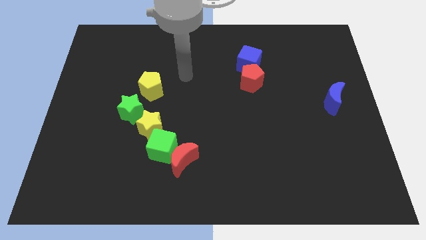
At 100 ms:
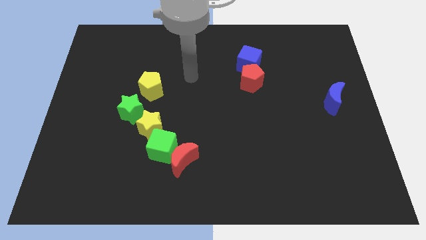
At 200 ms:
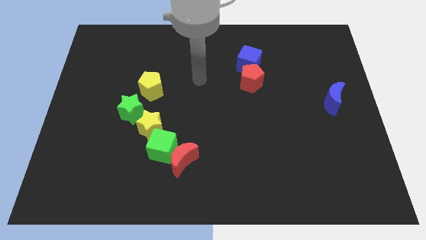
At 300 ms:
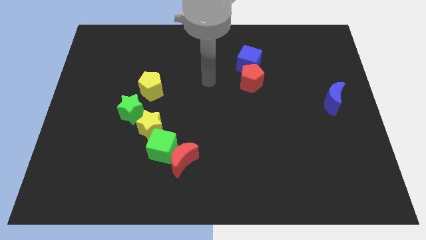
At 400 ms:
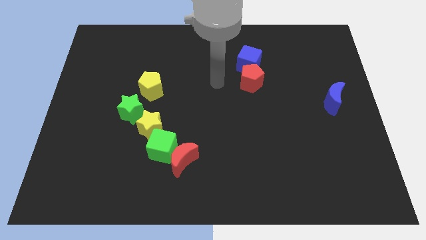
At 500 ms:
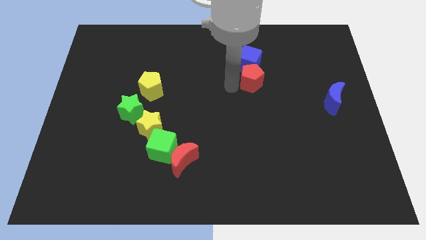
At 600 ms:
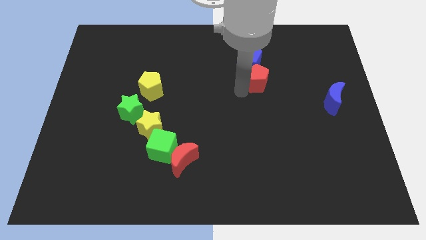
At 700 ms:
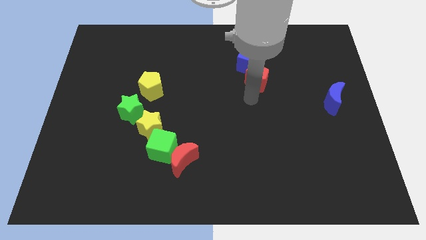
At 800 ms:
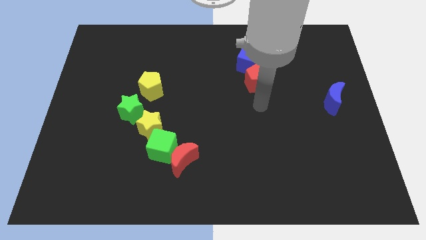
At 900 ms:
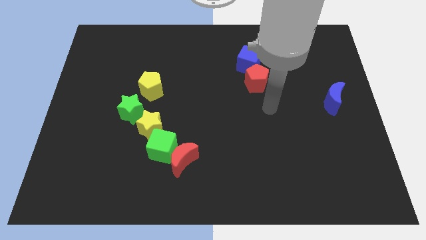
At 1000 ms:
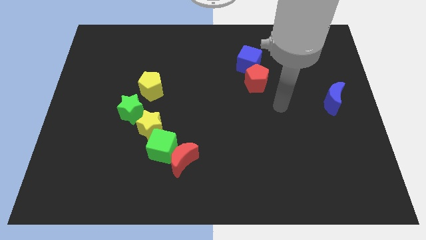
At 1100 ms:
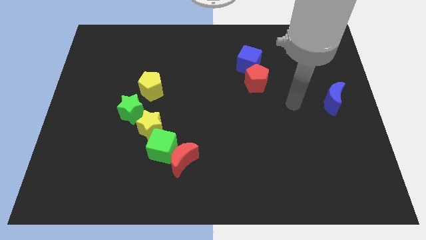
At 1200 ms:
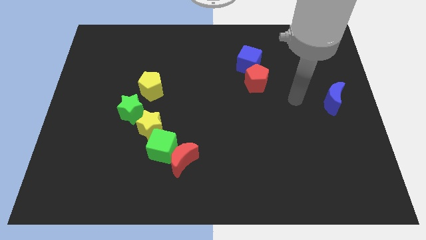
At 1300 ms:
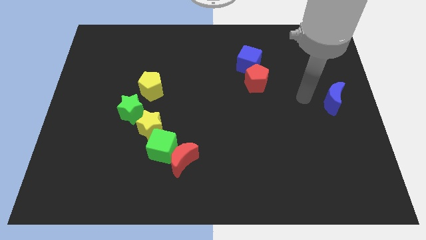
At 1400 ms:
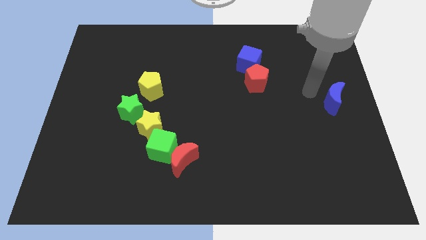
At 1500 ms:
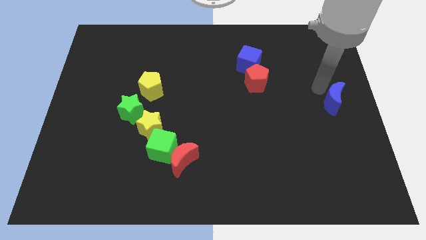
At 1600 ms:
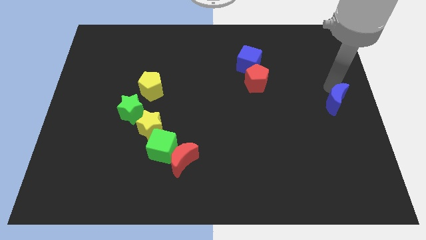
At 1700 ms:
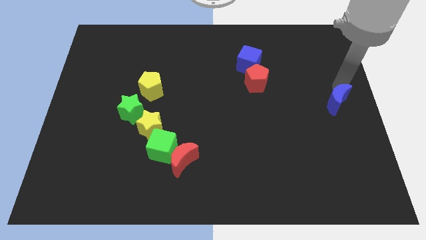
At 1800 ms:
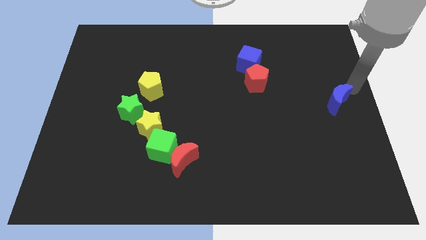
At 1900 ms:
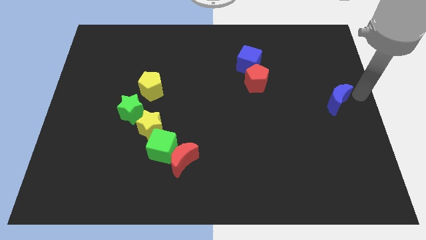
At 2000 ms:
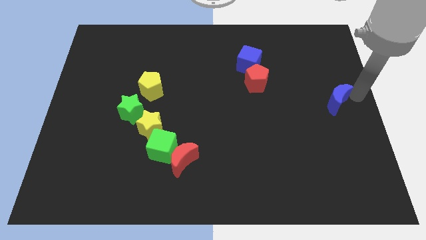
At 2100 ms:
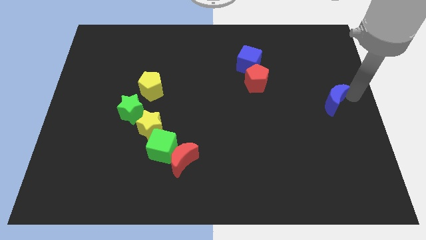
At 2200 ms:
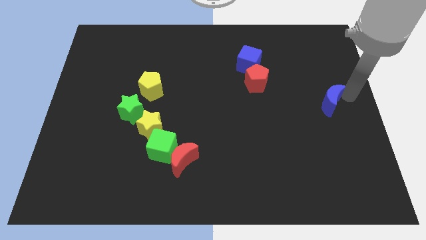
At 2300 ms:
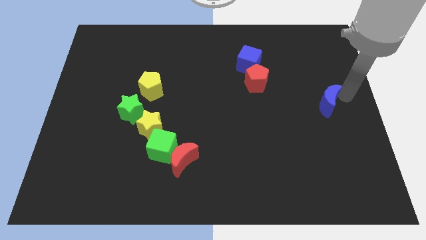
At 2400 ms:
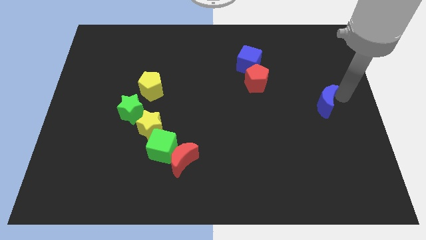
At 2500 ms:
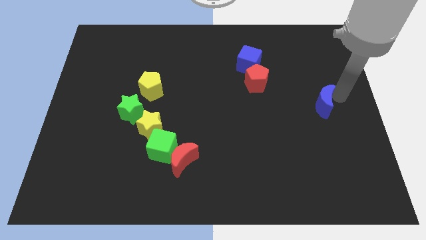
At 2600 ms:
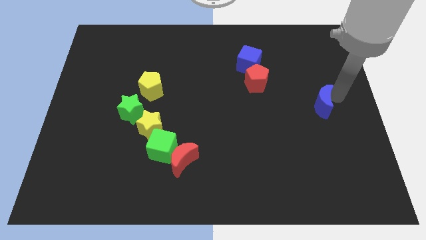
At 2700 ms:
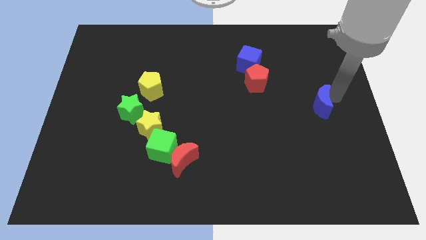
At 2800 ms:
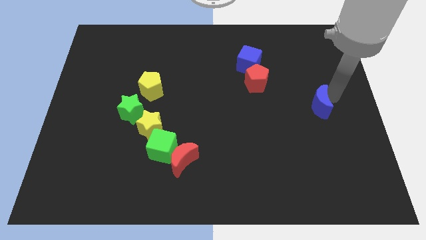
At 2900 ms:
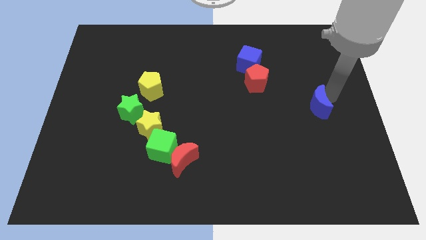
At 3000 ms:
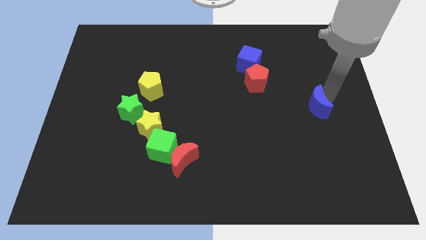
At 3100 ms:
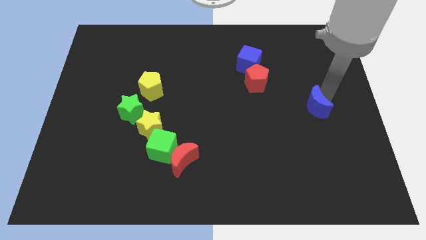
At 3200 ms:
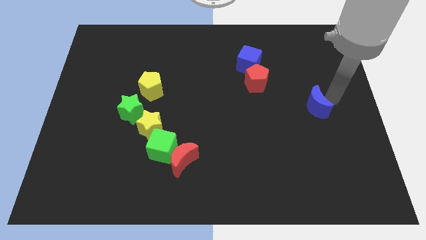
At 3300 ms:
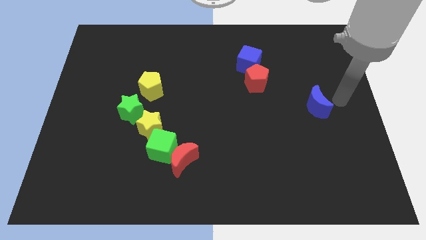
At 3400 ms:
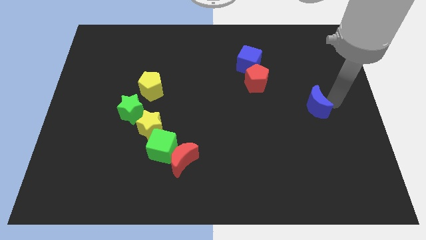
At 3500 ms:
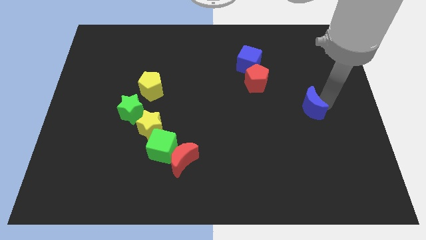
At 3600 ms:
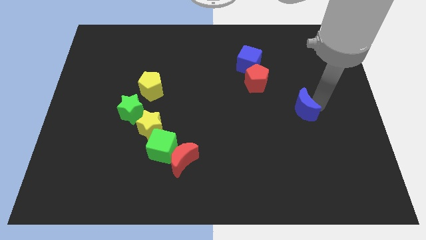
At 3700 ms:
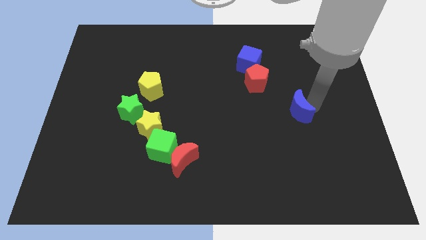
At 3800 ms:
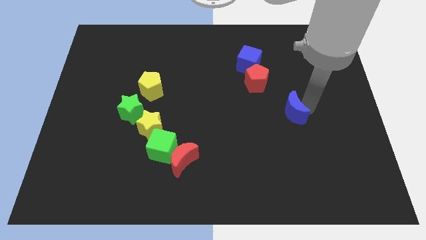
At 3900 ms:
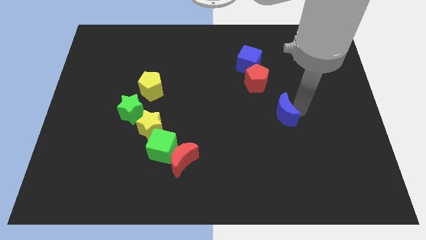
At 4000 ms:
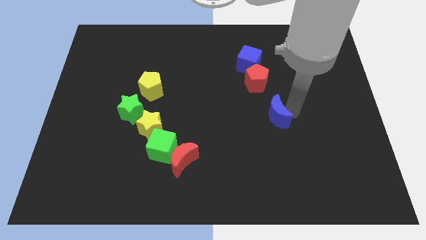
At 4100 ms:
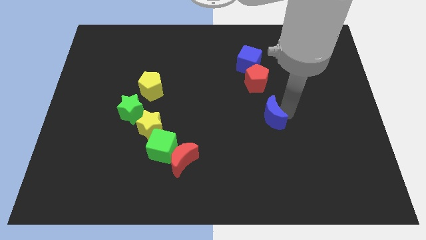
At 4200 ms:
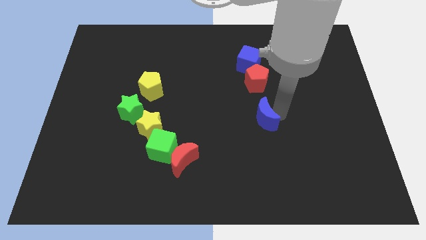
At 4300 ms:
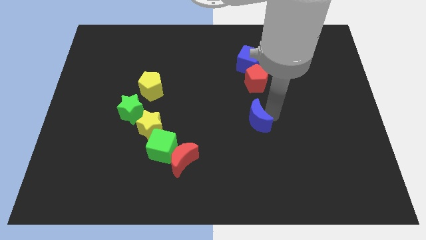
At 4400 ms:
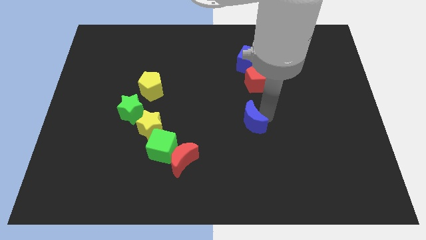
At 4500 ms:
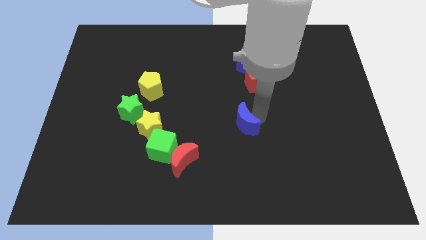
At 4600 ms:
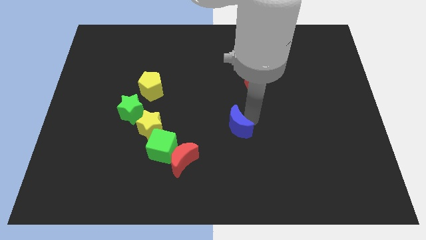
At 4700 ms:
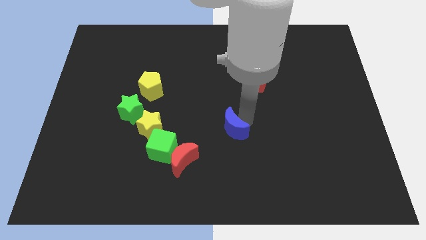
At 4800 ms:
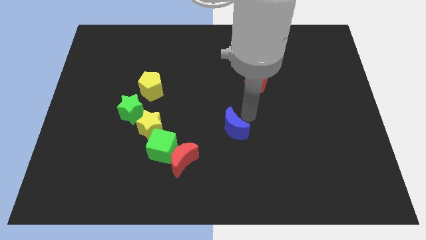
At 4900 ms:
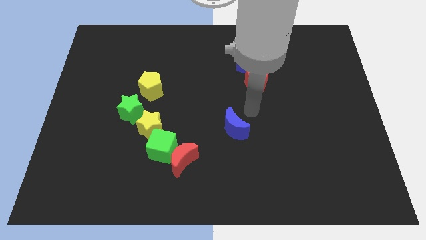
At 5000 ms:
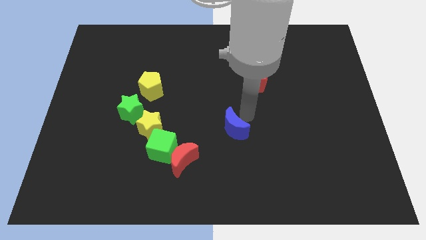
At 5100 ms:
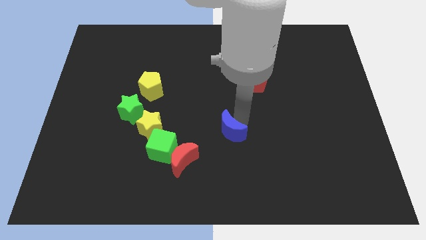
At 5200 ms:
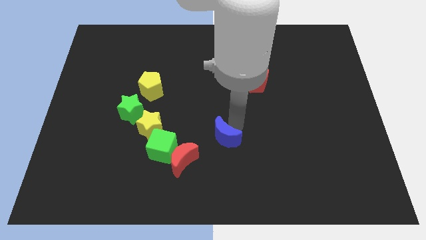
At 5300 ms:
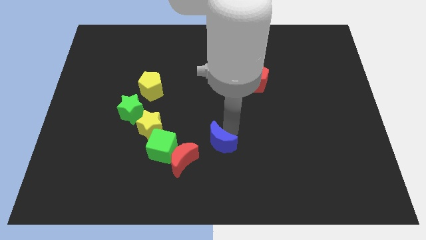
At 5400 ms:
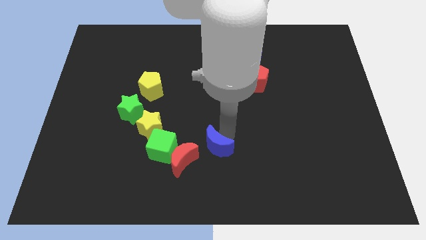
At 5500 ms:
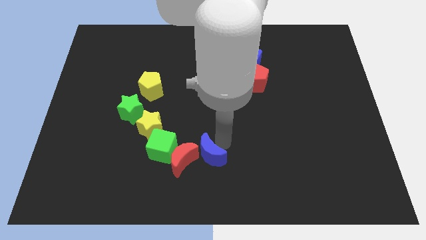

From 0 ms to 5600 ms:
push the blue moon towards the red moon

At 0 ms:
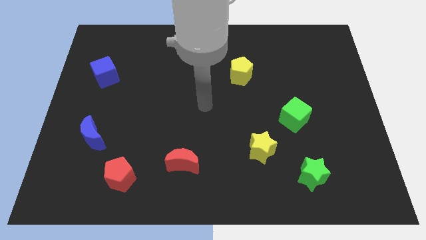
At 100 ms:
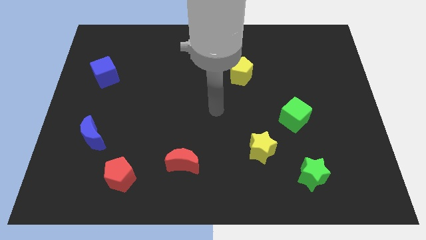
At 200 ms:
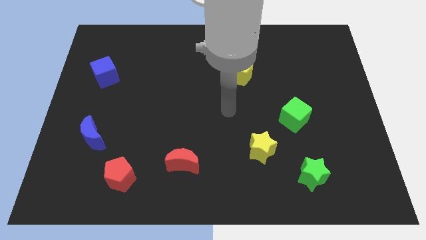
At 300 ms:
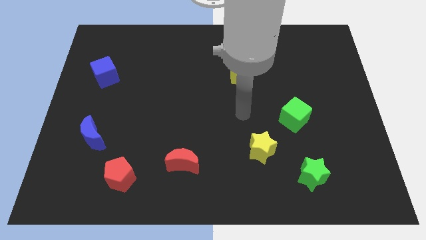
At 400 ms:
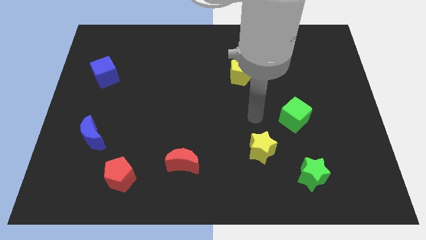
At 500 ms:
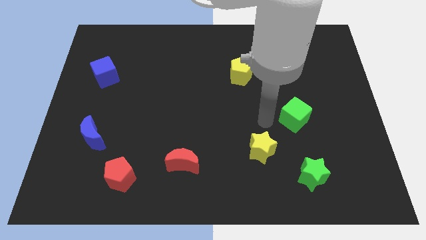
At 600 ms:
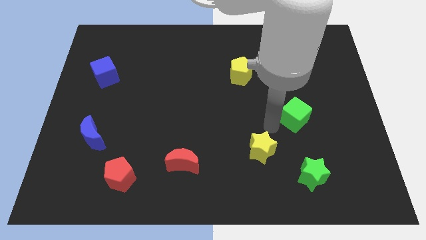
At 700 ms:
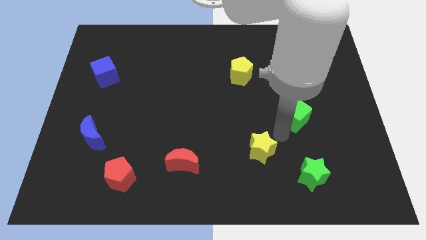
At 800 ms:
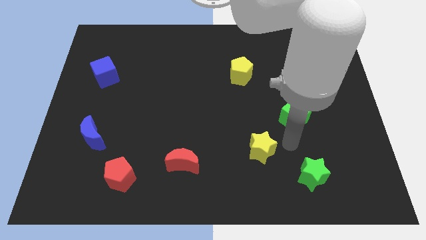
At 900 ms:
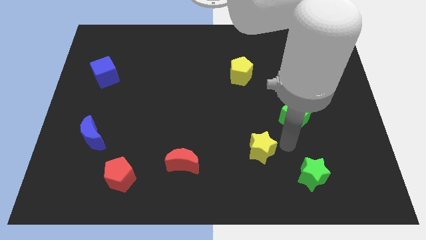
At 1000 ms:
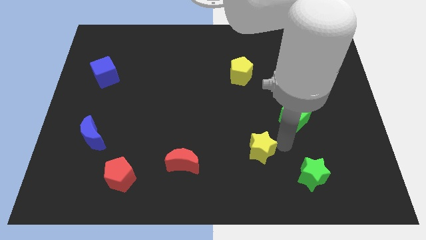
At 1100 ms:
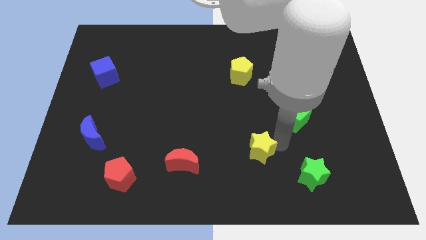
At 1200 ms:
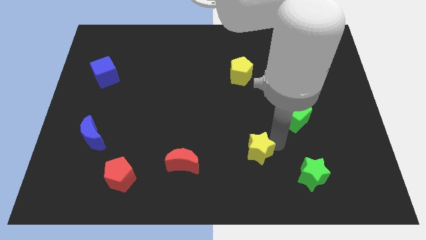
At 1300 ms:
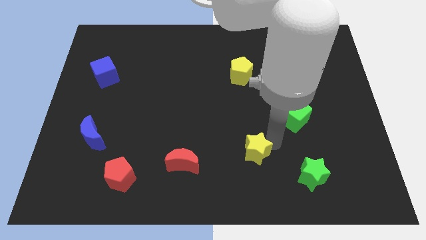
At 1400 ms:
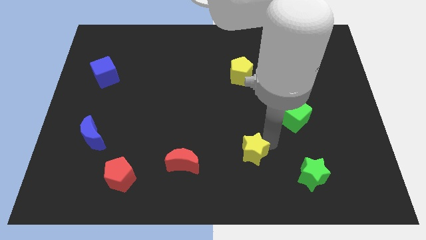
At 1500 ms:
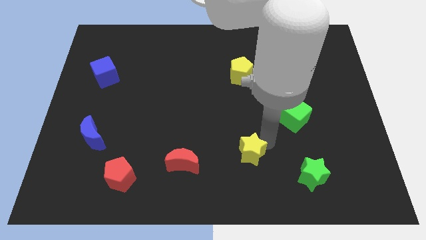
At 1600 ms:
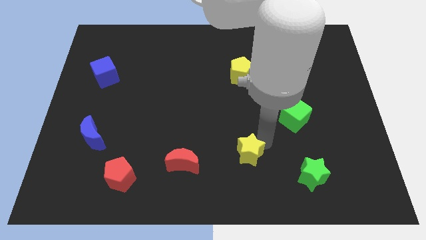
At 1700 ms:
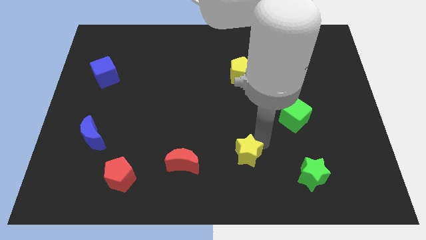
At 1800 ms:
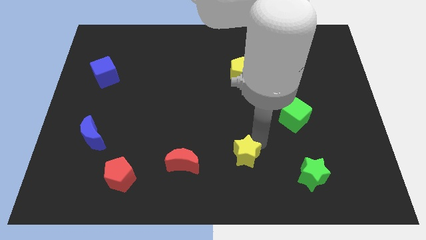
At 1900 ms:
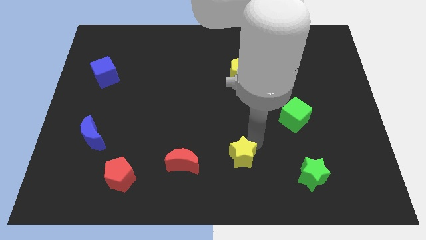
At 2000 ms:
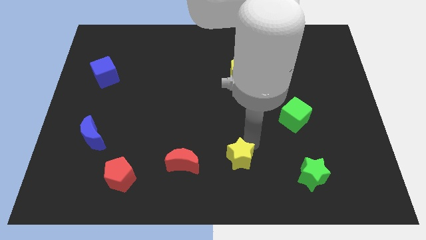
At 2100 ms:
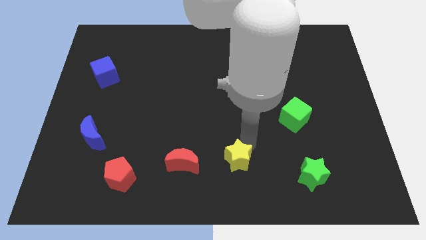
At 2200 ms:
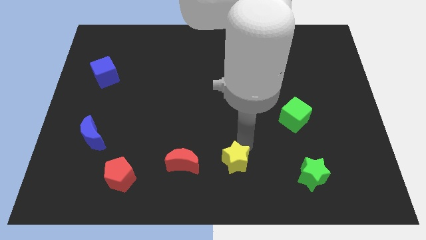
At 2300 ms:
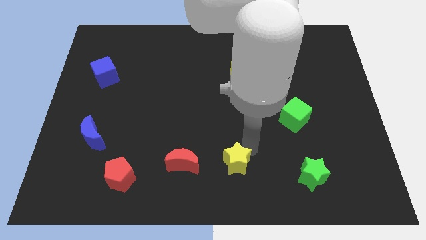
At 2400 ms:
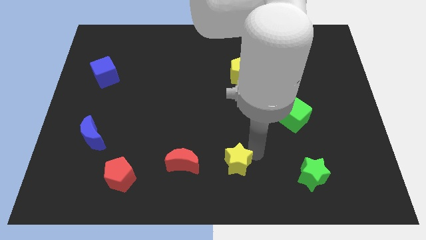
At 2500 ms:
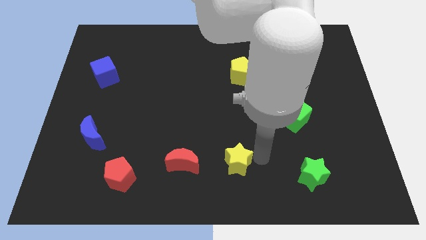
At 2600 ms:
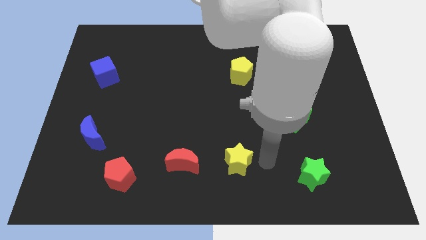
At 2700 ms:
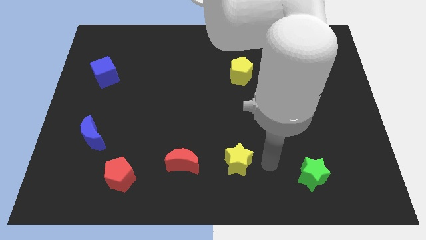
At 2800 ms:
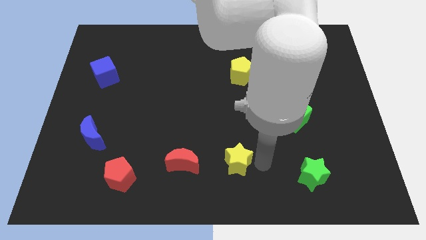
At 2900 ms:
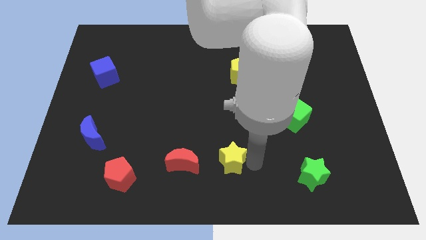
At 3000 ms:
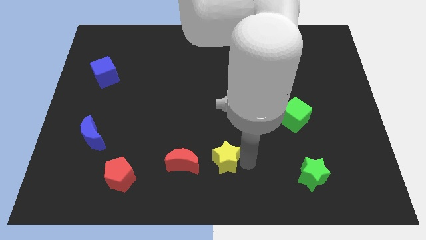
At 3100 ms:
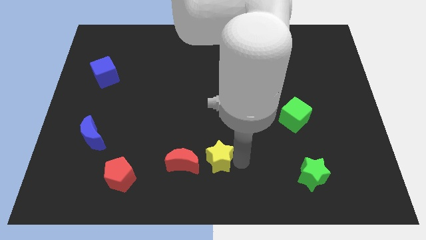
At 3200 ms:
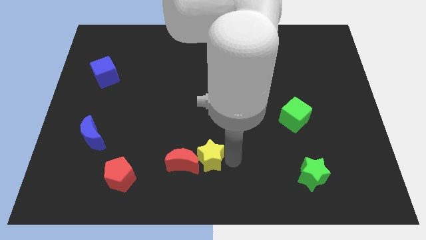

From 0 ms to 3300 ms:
slide the yellow star close to the red moon
